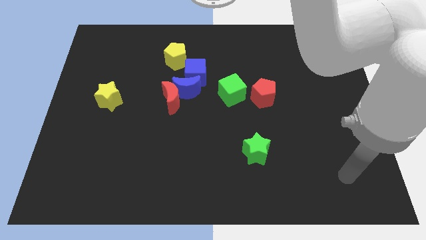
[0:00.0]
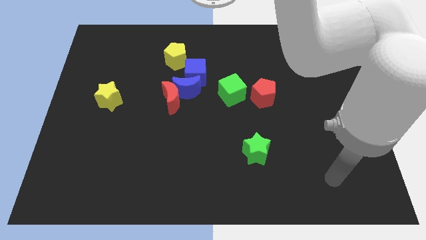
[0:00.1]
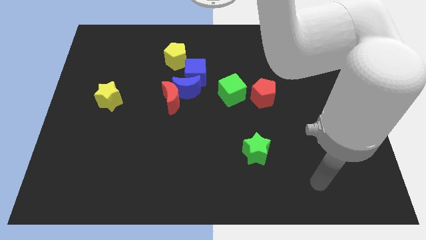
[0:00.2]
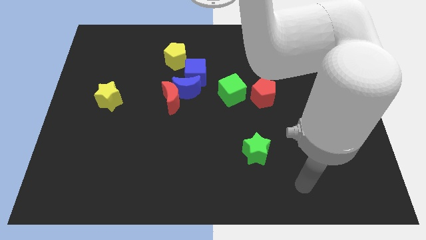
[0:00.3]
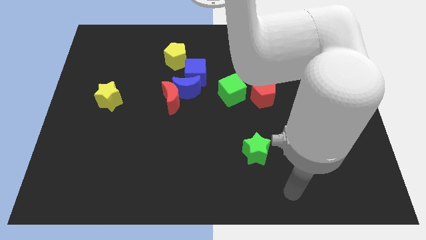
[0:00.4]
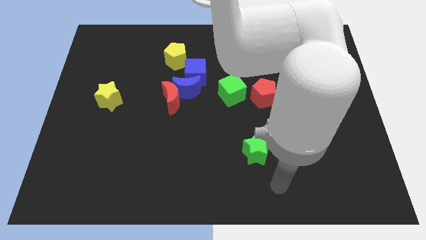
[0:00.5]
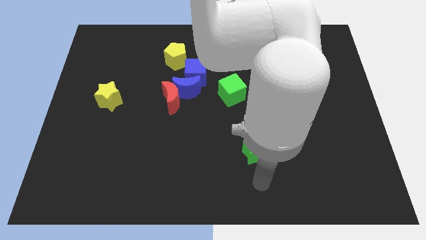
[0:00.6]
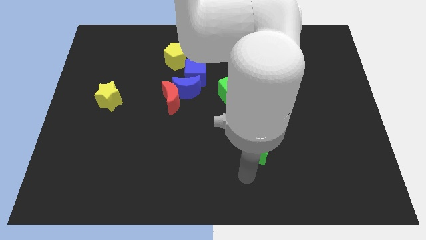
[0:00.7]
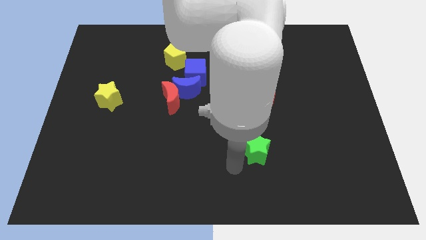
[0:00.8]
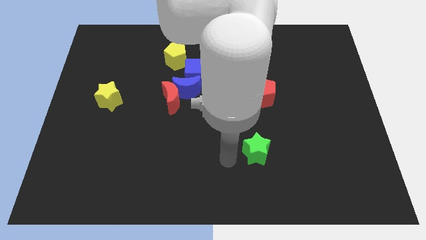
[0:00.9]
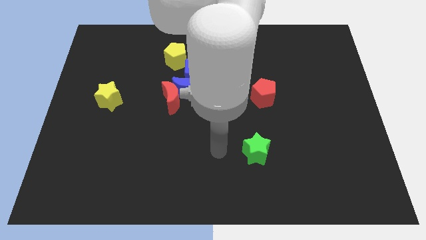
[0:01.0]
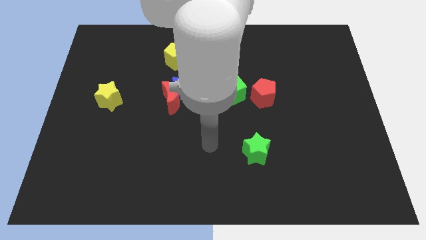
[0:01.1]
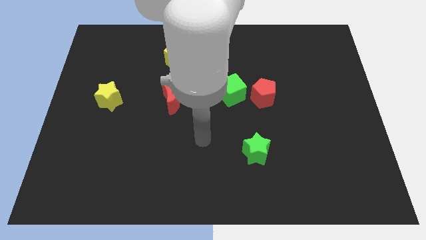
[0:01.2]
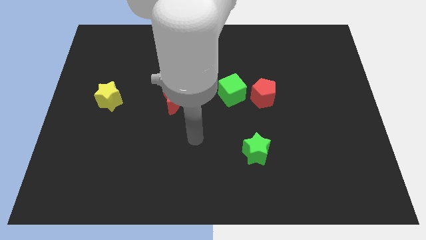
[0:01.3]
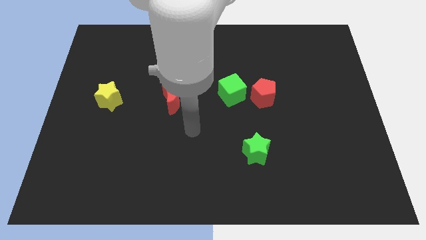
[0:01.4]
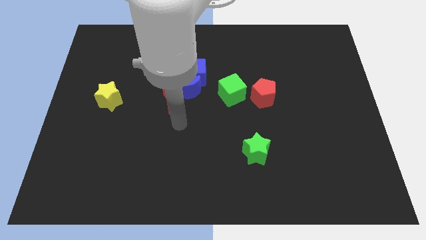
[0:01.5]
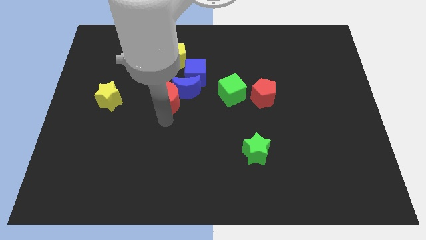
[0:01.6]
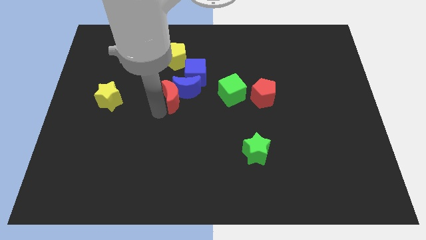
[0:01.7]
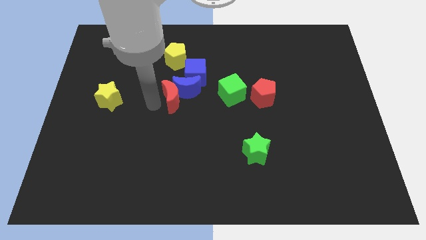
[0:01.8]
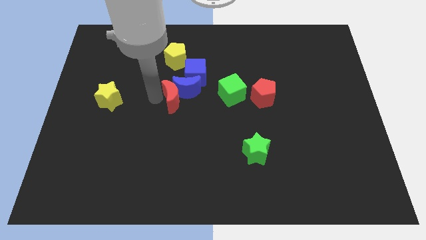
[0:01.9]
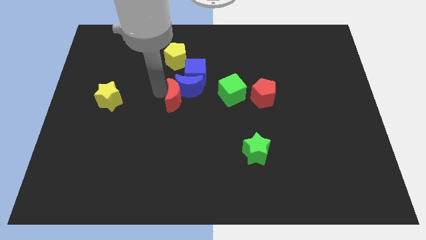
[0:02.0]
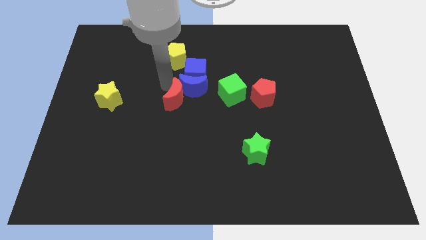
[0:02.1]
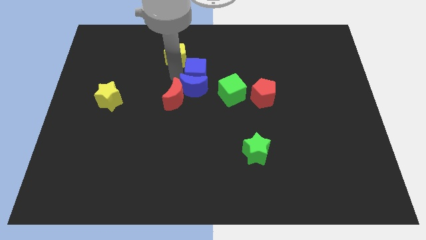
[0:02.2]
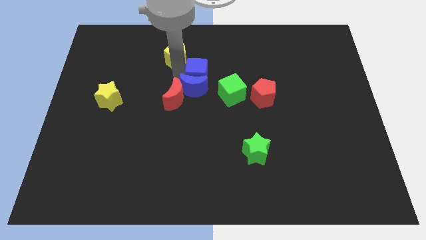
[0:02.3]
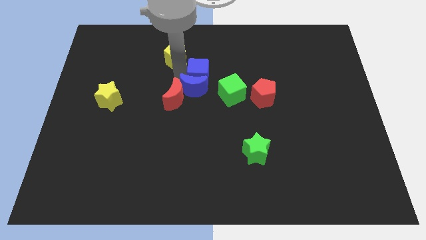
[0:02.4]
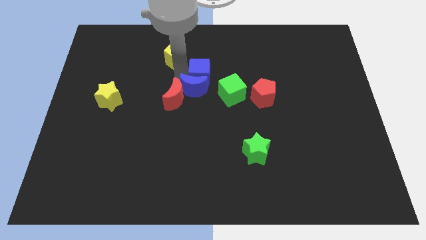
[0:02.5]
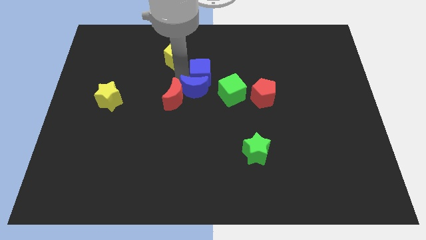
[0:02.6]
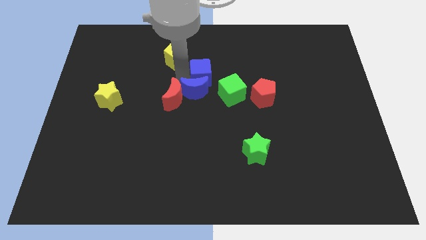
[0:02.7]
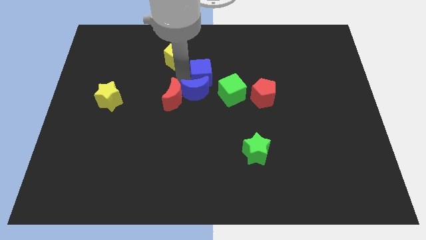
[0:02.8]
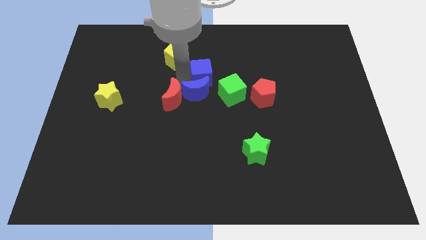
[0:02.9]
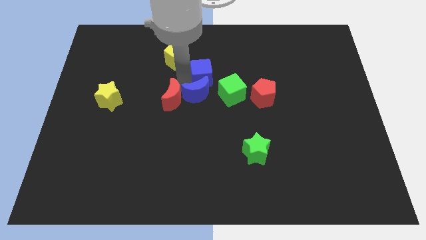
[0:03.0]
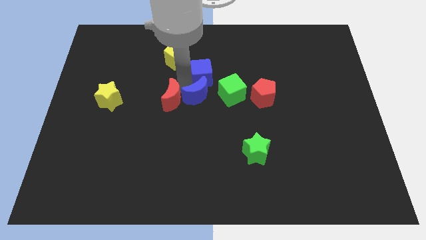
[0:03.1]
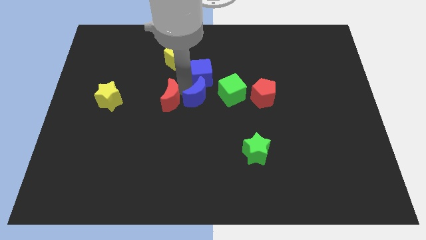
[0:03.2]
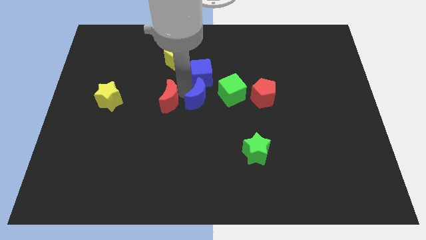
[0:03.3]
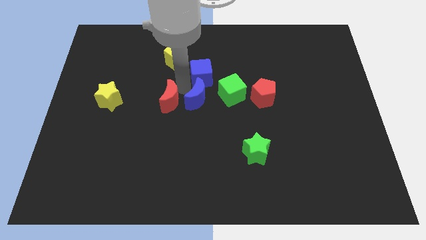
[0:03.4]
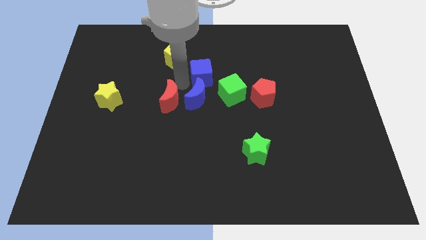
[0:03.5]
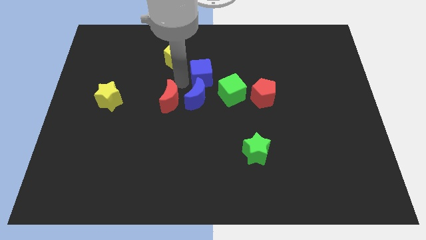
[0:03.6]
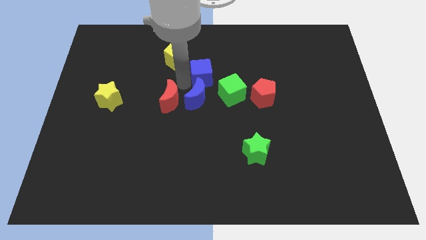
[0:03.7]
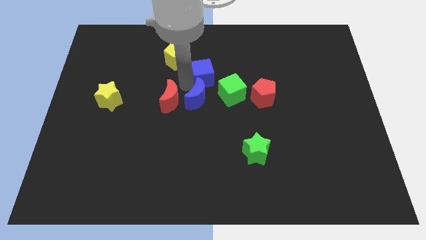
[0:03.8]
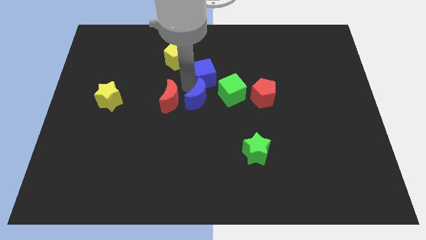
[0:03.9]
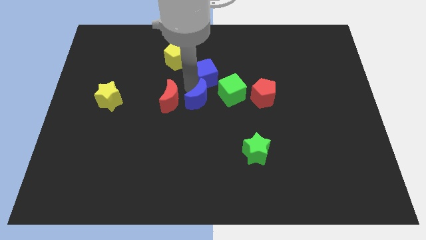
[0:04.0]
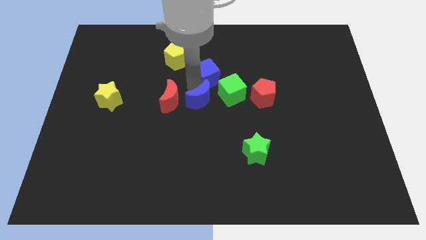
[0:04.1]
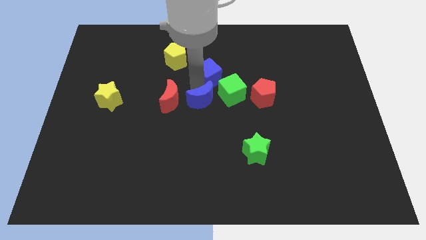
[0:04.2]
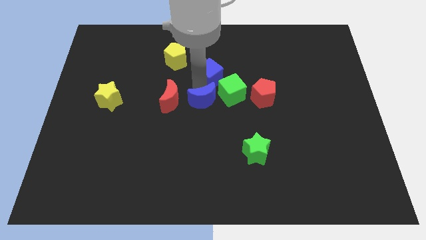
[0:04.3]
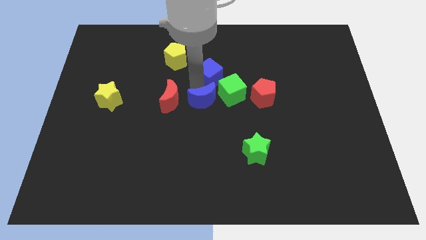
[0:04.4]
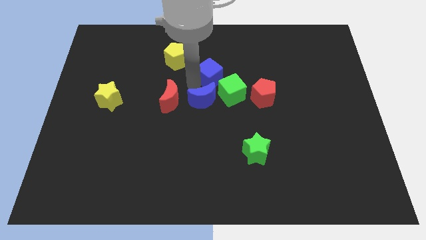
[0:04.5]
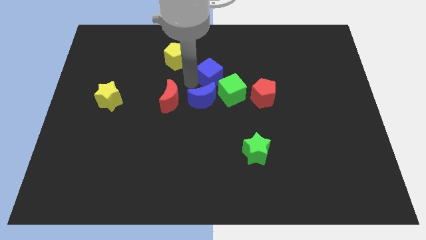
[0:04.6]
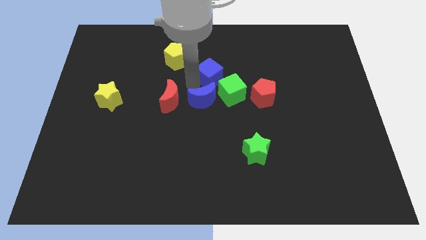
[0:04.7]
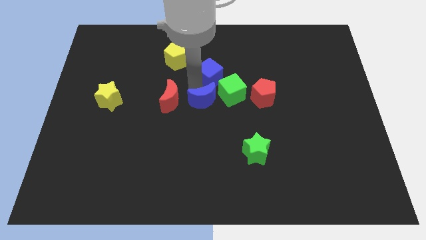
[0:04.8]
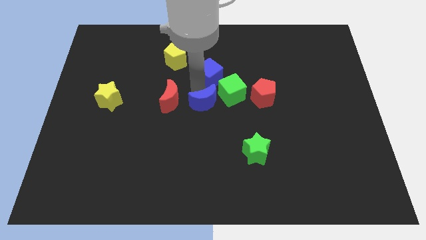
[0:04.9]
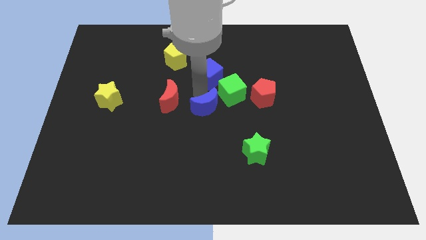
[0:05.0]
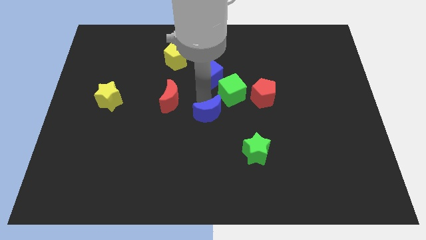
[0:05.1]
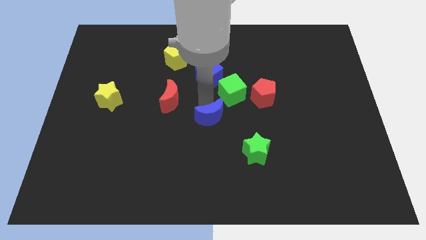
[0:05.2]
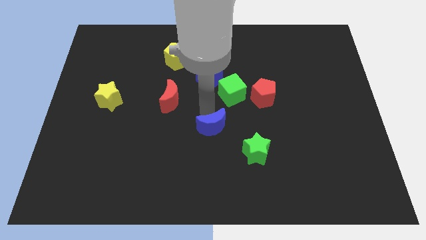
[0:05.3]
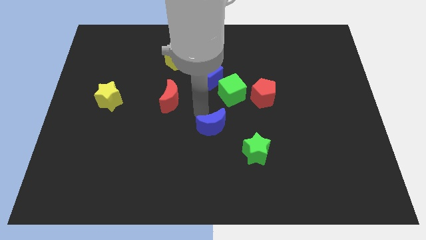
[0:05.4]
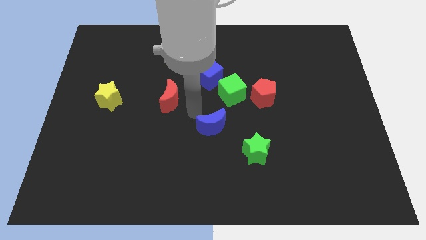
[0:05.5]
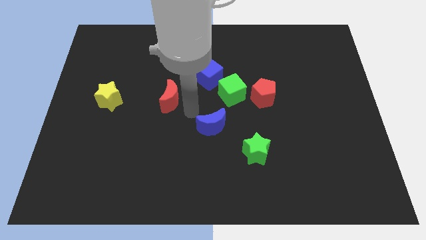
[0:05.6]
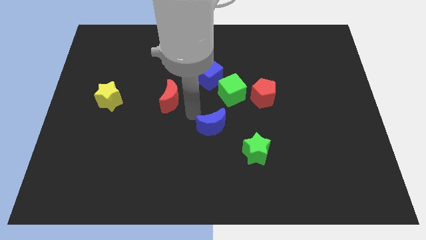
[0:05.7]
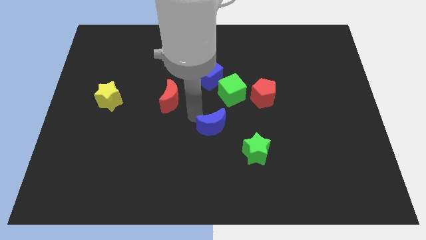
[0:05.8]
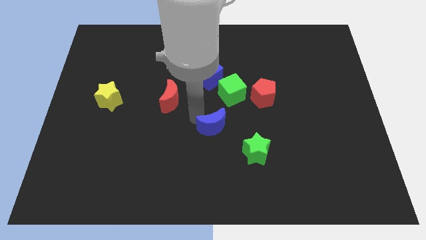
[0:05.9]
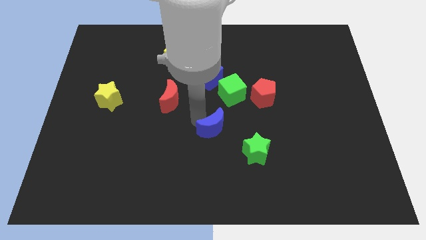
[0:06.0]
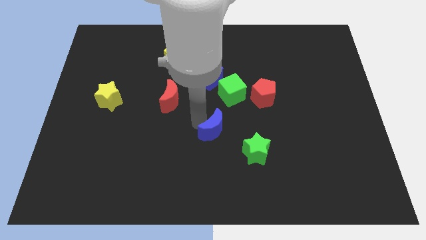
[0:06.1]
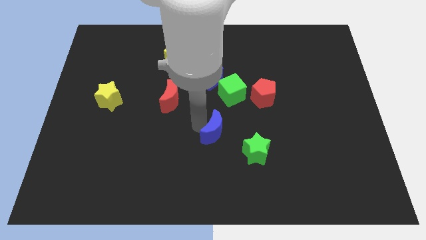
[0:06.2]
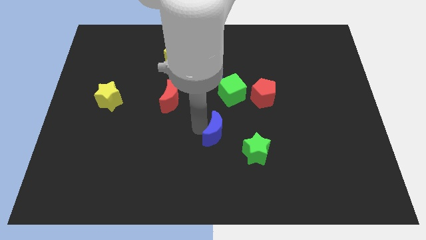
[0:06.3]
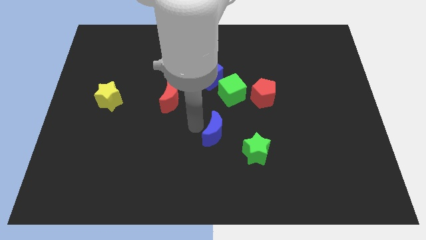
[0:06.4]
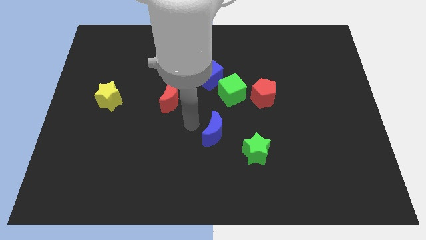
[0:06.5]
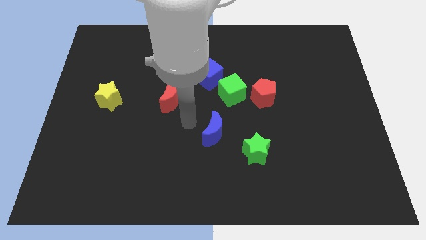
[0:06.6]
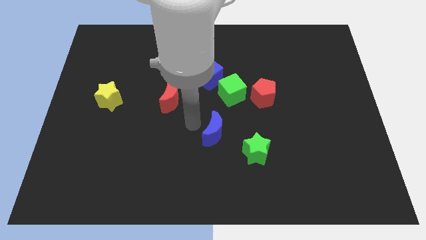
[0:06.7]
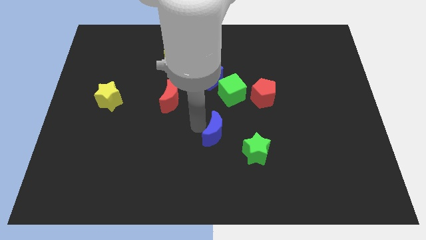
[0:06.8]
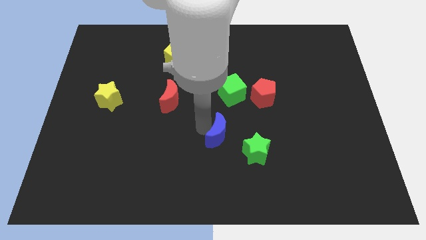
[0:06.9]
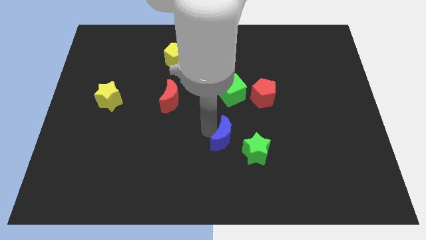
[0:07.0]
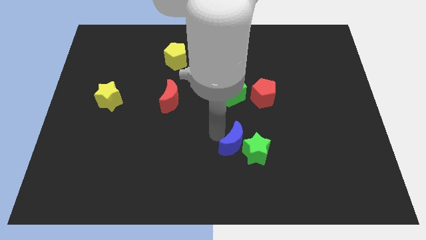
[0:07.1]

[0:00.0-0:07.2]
push the blue moon next to the green star
